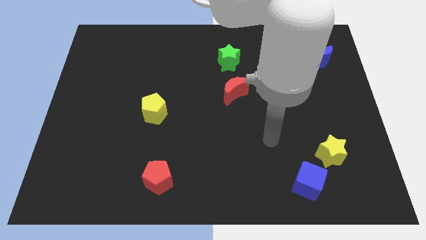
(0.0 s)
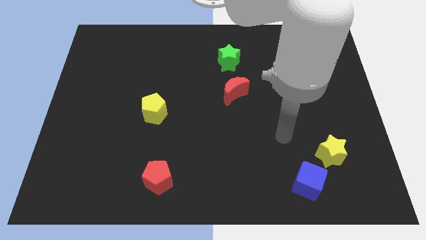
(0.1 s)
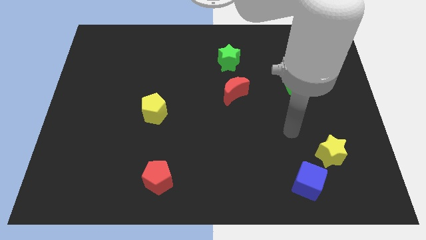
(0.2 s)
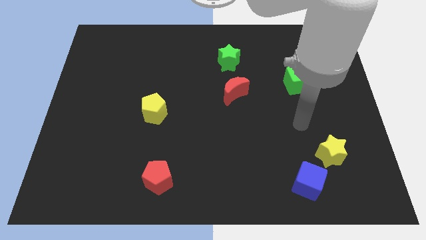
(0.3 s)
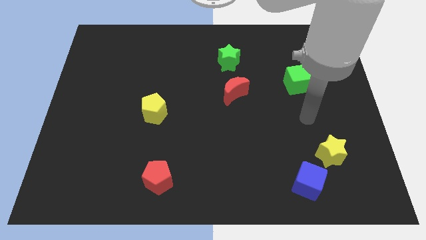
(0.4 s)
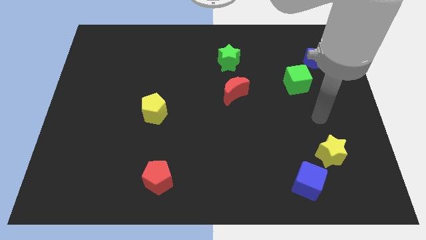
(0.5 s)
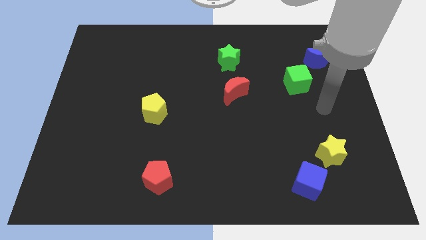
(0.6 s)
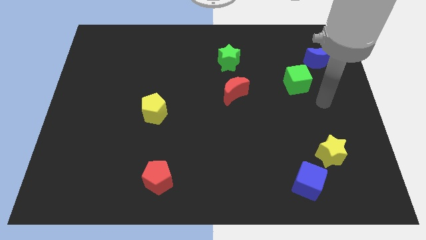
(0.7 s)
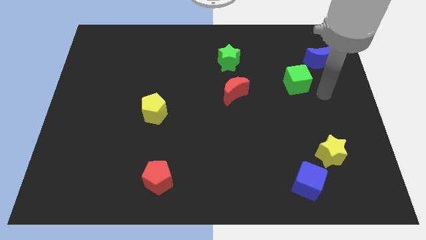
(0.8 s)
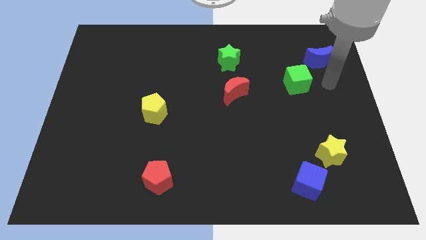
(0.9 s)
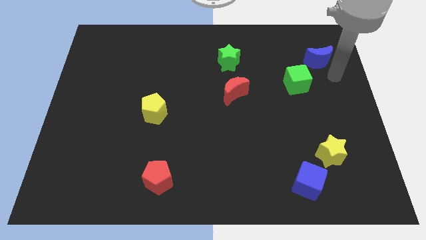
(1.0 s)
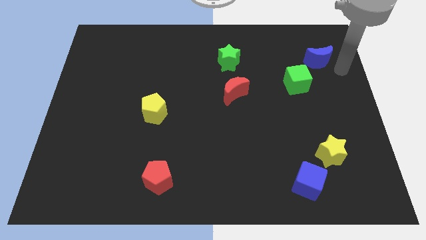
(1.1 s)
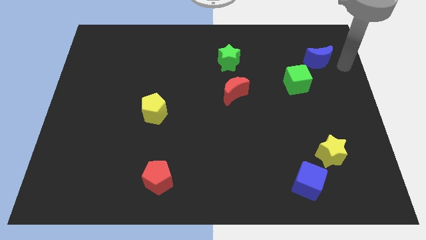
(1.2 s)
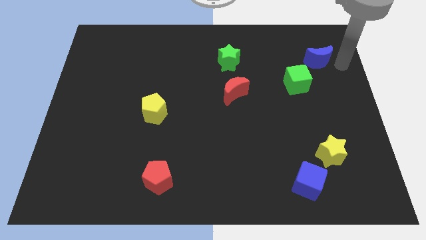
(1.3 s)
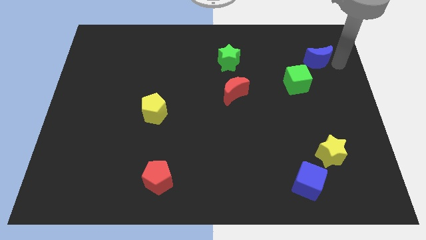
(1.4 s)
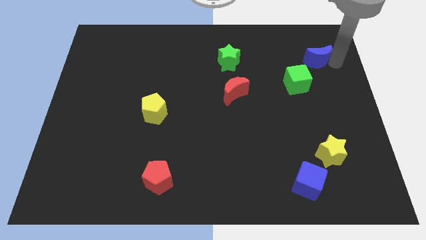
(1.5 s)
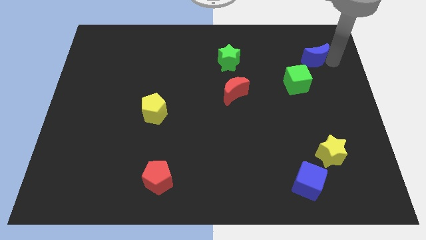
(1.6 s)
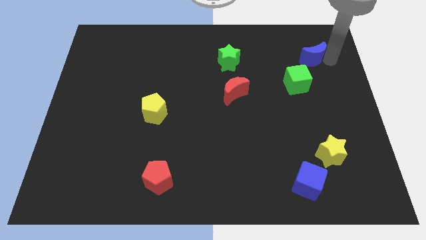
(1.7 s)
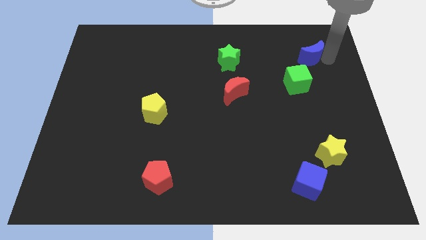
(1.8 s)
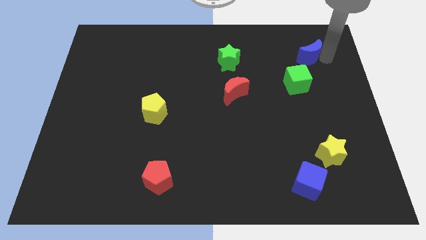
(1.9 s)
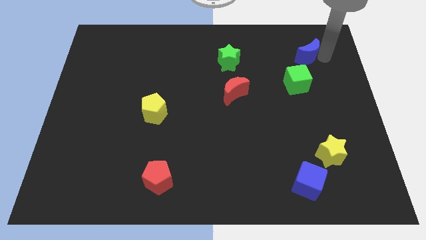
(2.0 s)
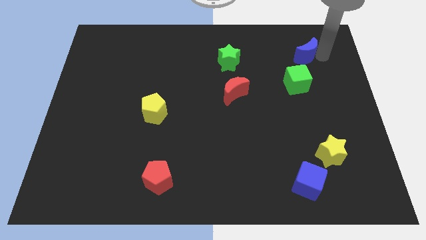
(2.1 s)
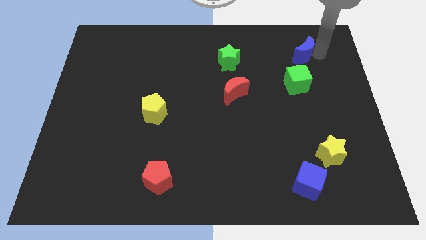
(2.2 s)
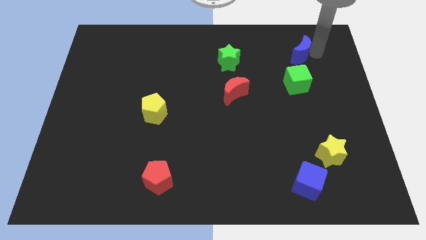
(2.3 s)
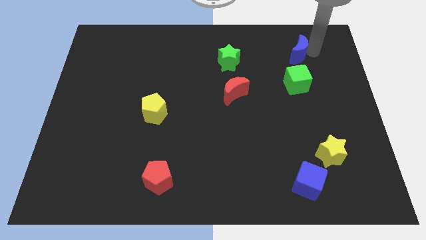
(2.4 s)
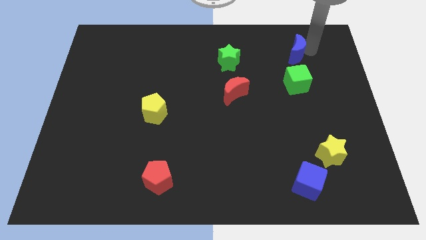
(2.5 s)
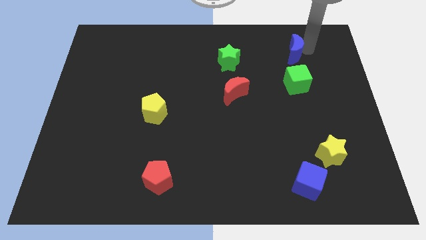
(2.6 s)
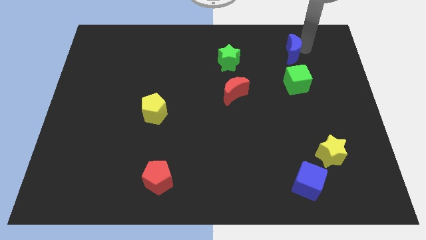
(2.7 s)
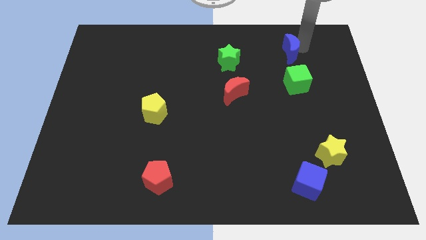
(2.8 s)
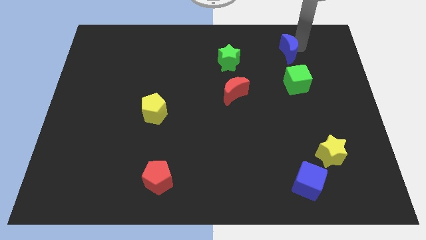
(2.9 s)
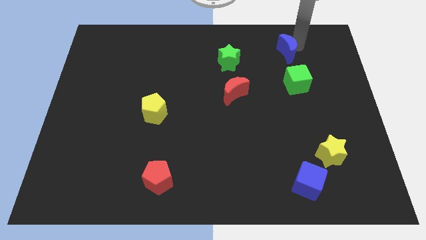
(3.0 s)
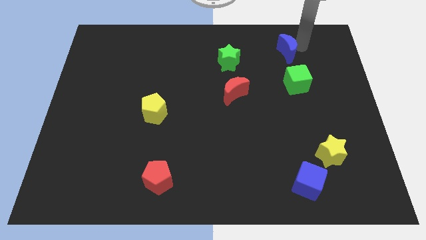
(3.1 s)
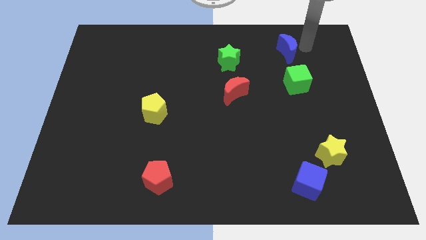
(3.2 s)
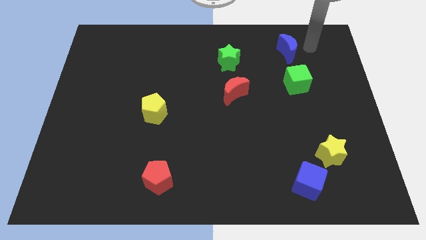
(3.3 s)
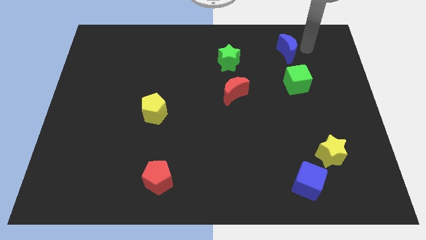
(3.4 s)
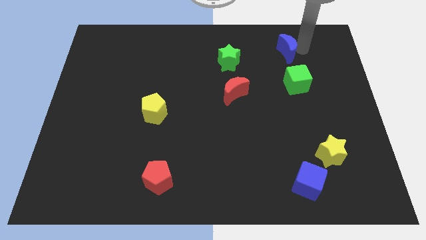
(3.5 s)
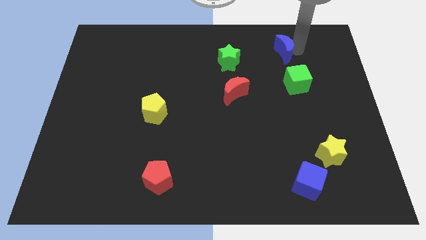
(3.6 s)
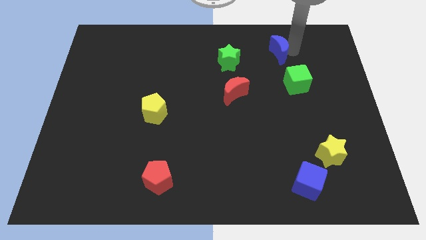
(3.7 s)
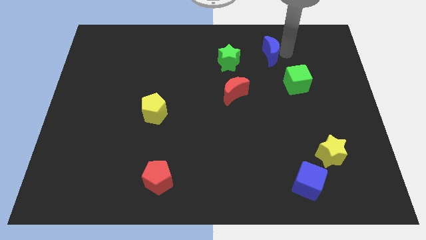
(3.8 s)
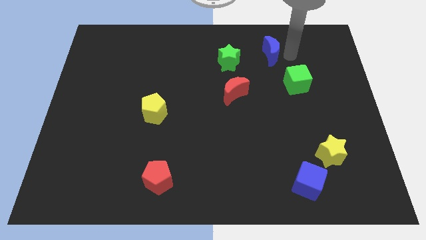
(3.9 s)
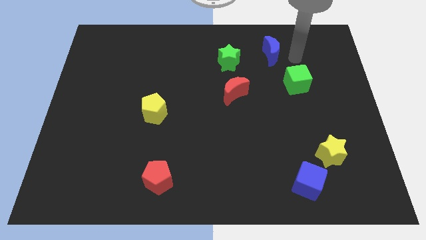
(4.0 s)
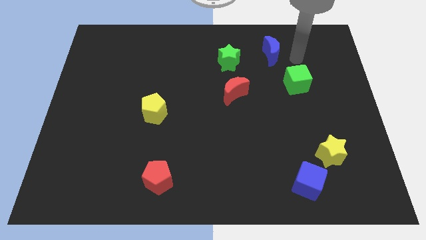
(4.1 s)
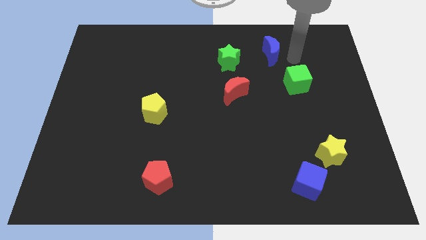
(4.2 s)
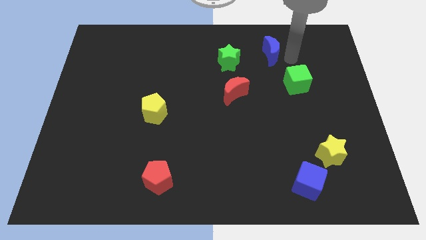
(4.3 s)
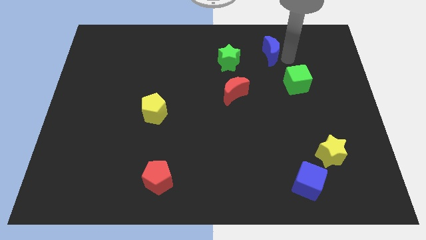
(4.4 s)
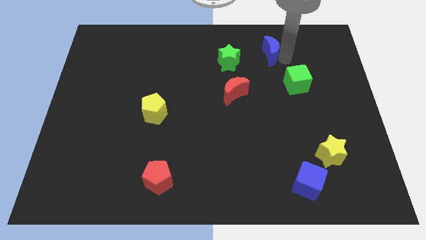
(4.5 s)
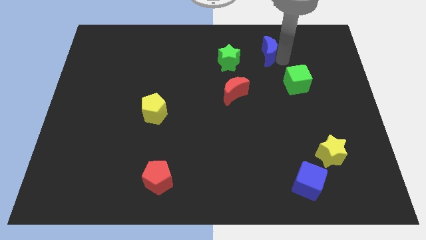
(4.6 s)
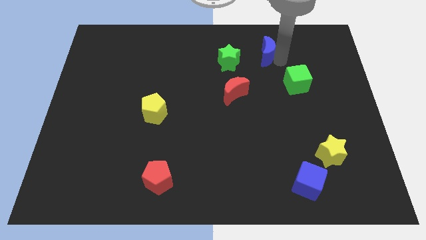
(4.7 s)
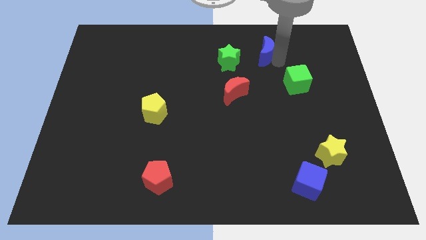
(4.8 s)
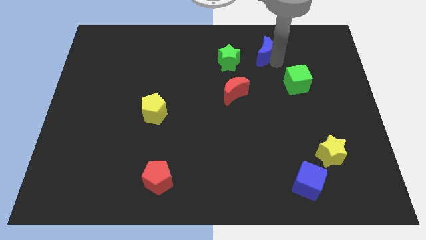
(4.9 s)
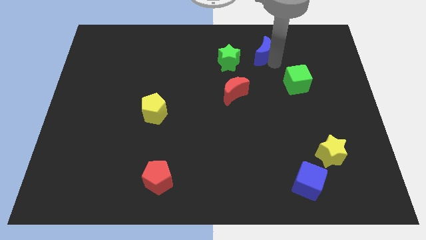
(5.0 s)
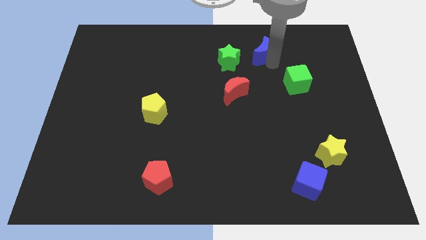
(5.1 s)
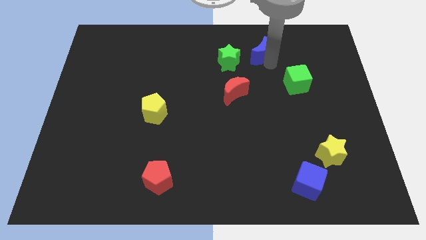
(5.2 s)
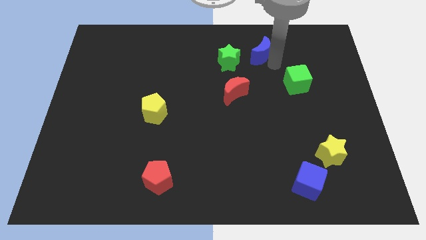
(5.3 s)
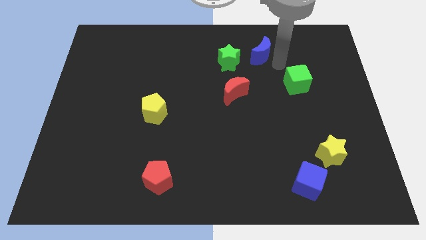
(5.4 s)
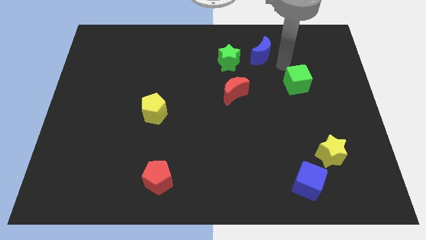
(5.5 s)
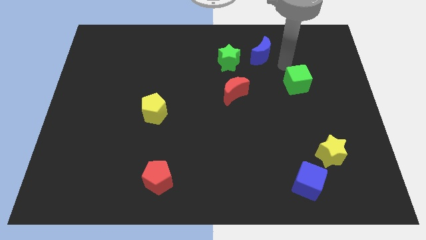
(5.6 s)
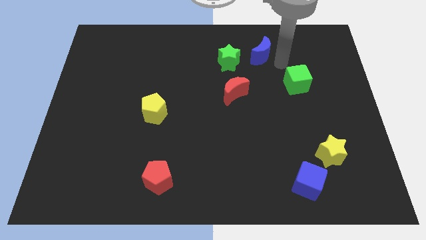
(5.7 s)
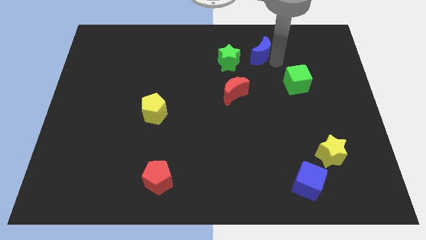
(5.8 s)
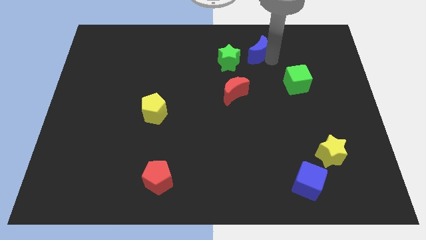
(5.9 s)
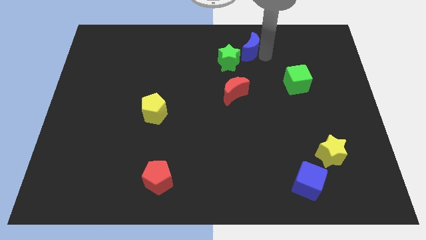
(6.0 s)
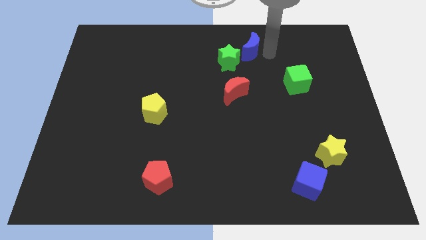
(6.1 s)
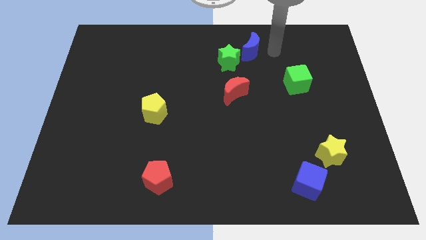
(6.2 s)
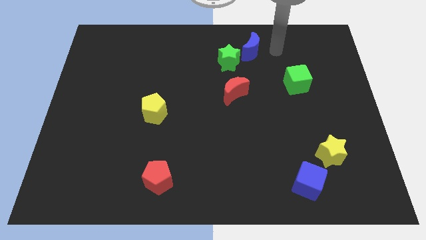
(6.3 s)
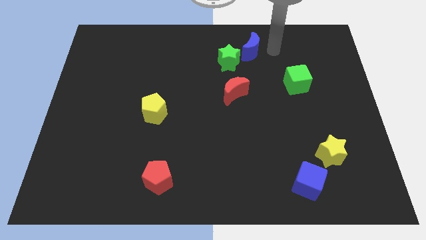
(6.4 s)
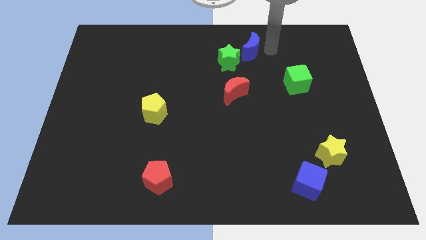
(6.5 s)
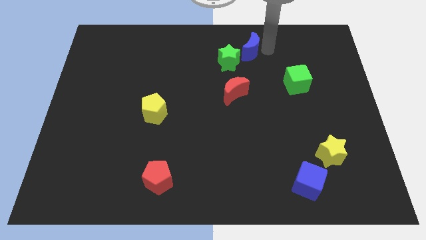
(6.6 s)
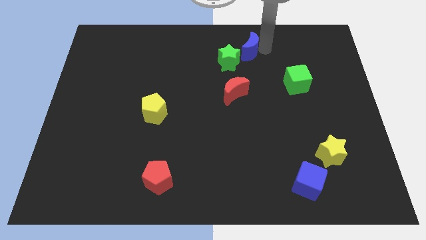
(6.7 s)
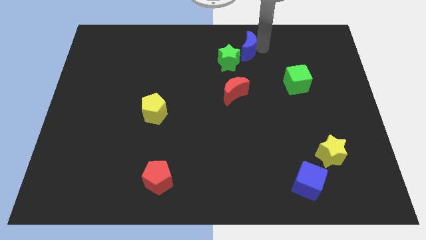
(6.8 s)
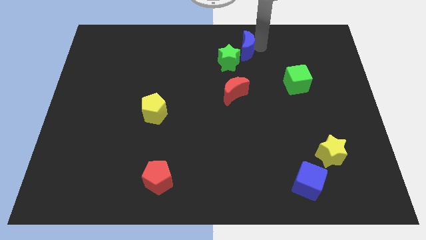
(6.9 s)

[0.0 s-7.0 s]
put the blue moon to the towards your base
